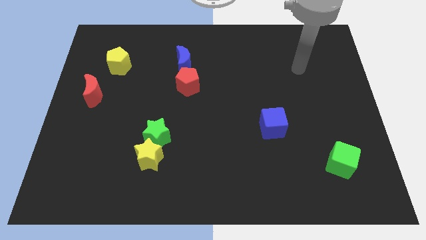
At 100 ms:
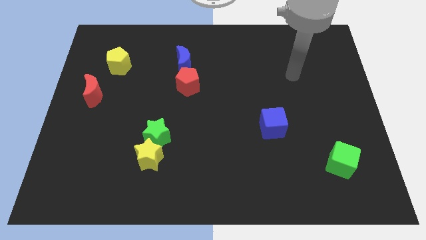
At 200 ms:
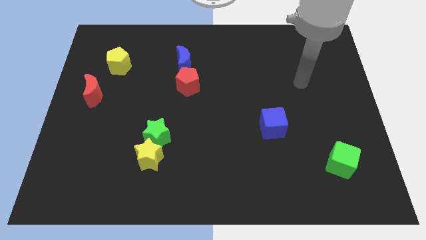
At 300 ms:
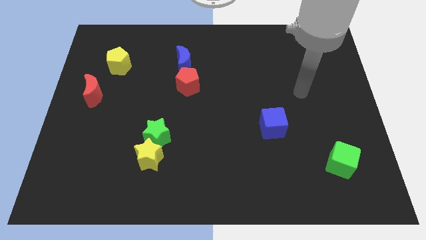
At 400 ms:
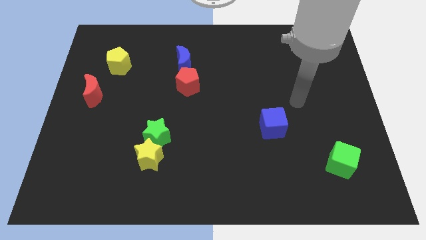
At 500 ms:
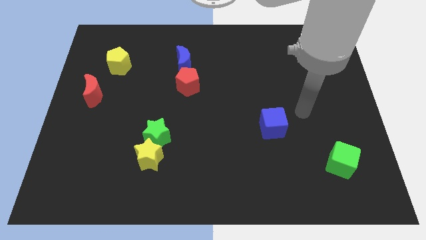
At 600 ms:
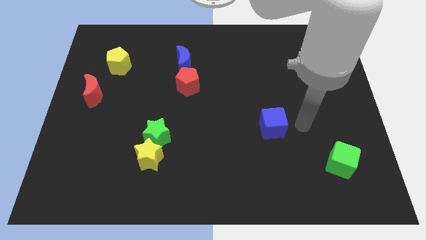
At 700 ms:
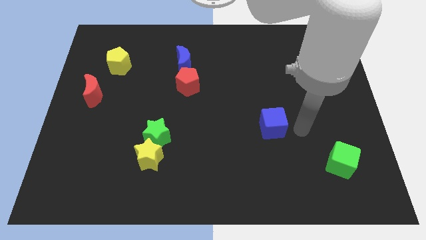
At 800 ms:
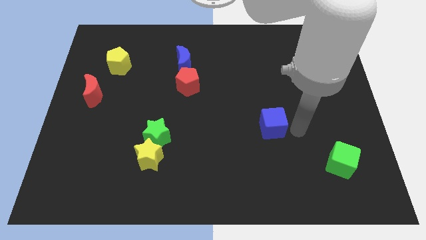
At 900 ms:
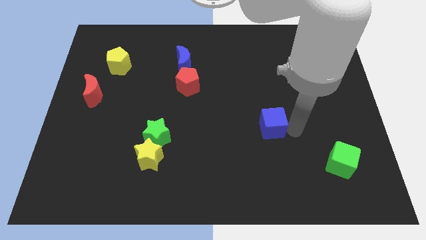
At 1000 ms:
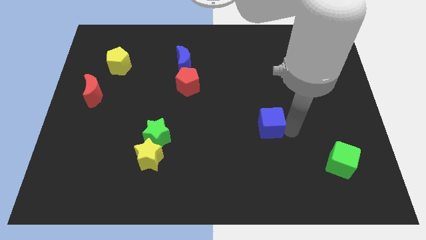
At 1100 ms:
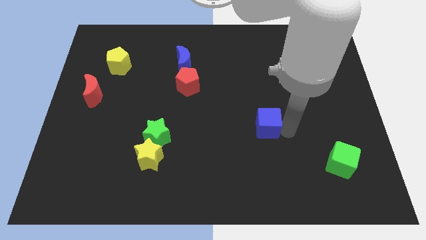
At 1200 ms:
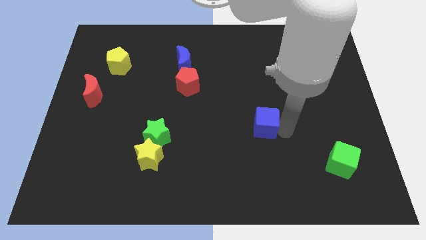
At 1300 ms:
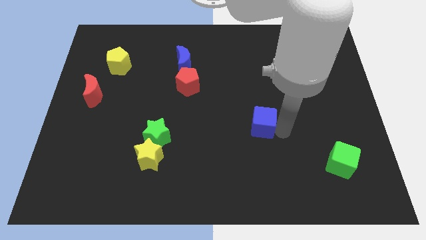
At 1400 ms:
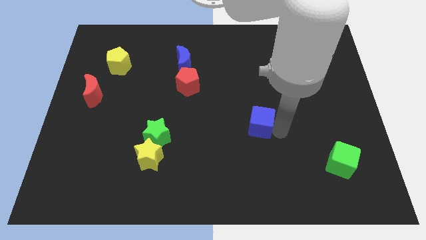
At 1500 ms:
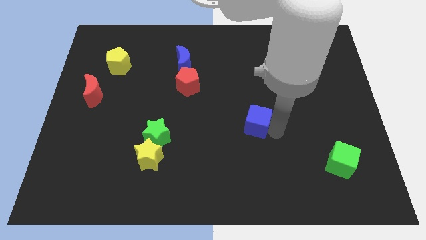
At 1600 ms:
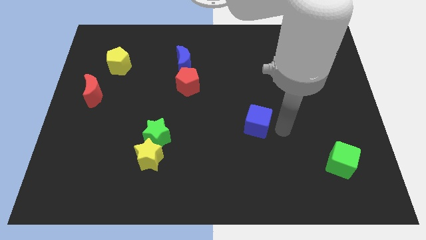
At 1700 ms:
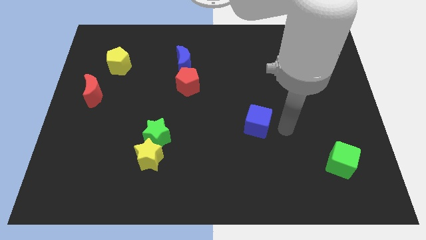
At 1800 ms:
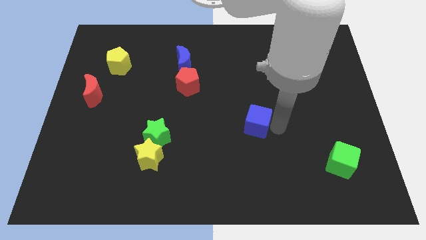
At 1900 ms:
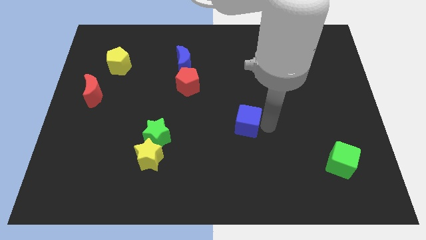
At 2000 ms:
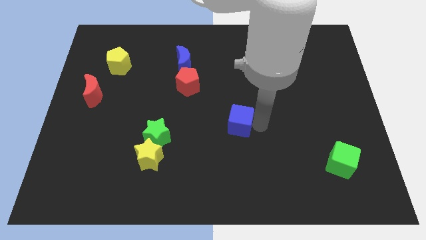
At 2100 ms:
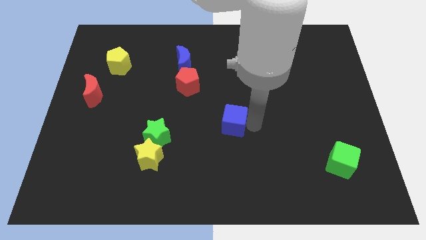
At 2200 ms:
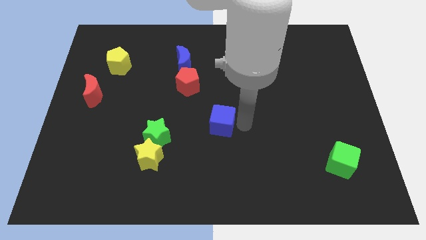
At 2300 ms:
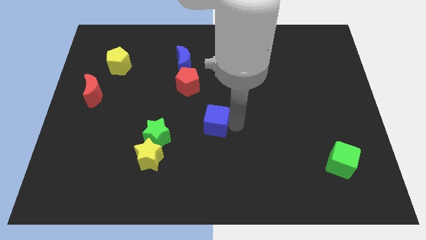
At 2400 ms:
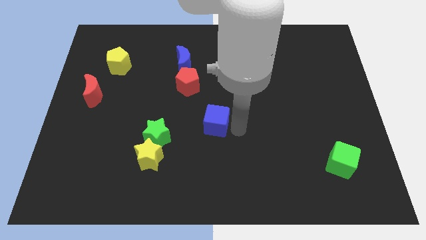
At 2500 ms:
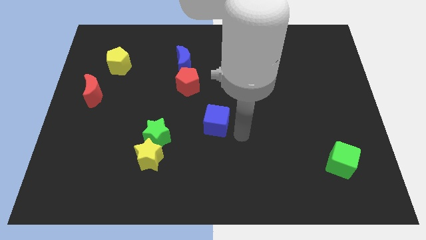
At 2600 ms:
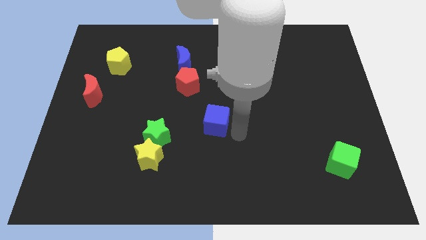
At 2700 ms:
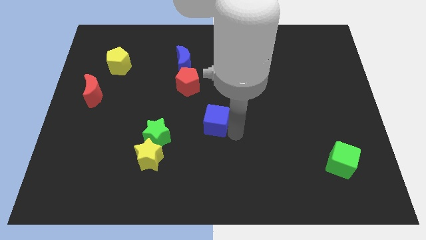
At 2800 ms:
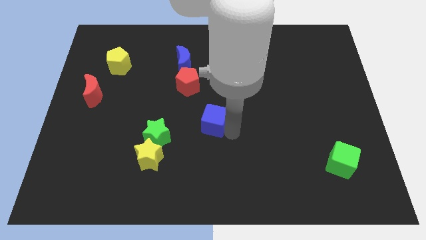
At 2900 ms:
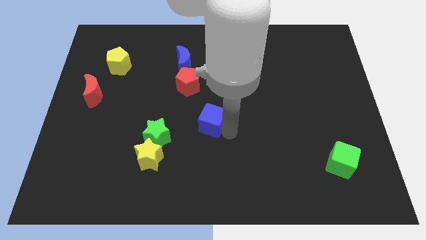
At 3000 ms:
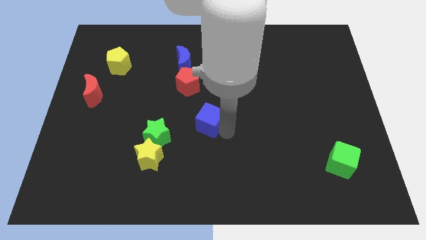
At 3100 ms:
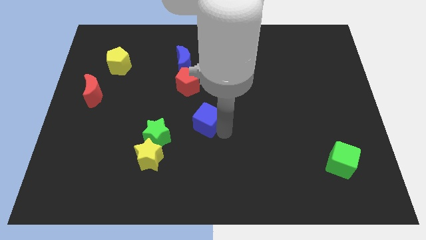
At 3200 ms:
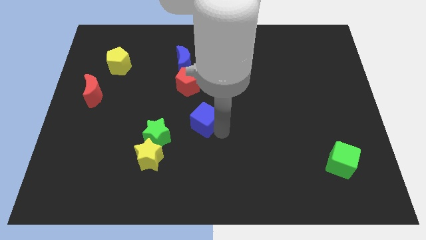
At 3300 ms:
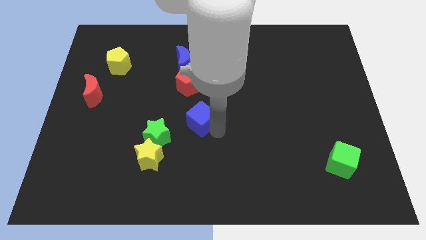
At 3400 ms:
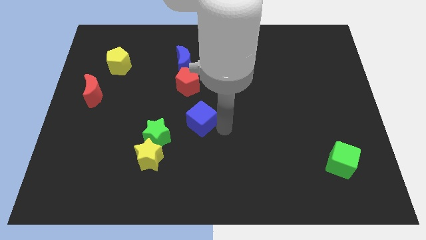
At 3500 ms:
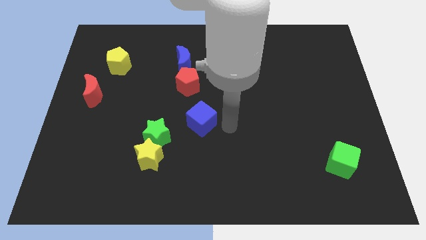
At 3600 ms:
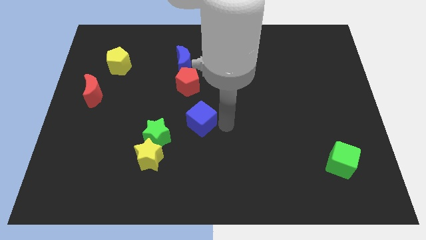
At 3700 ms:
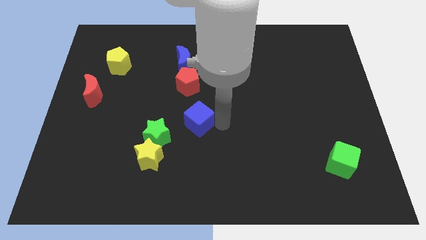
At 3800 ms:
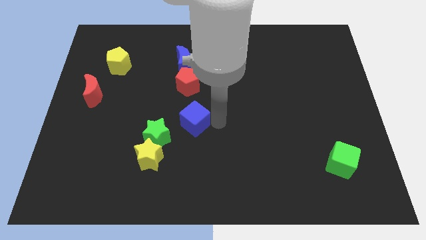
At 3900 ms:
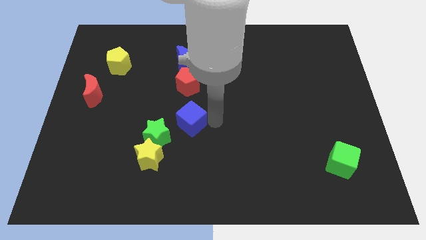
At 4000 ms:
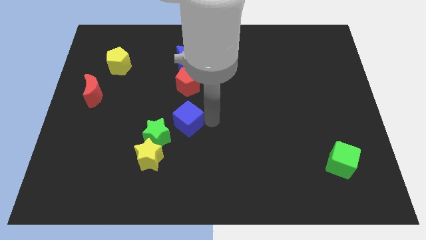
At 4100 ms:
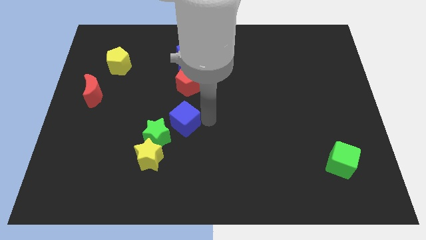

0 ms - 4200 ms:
move the blue cube left

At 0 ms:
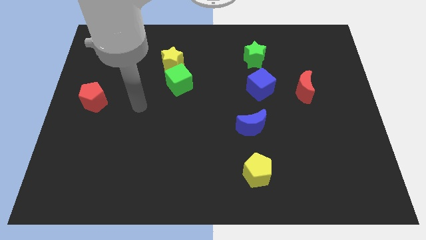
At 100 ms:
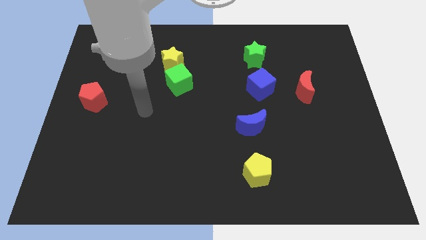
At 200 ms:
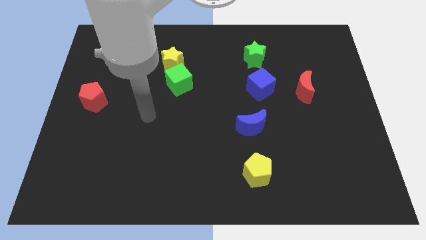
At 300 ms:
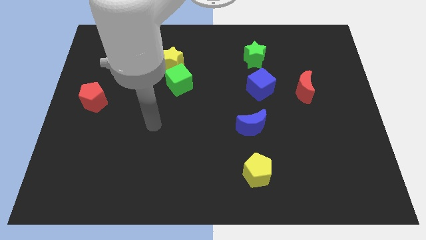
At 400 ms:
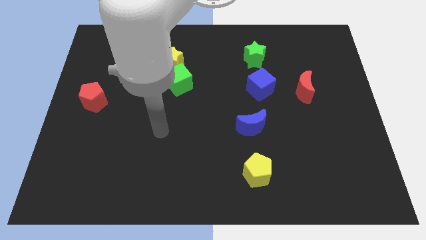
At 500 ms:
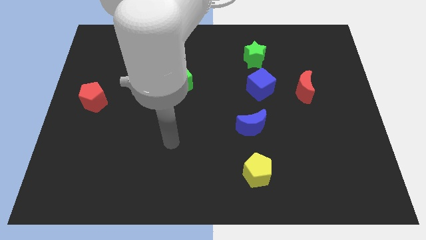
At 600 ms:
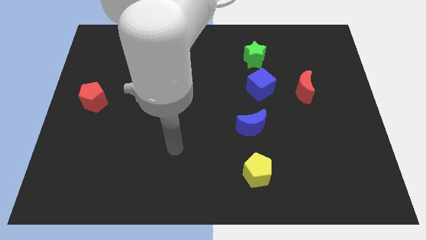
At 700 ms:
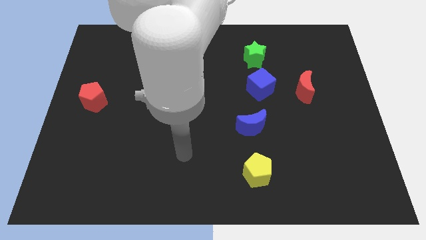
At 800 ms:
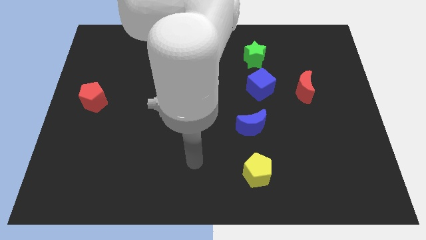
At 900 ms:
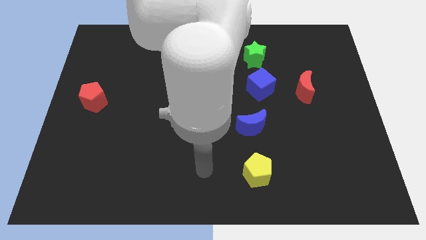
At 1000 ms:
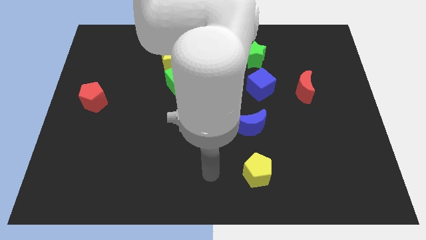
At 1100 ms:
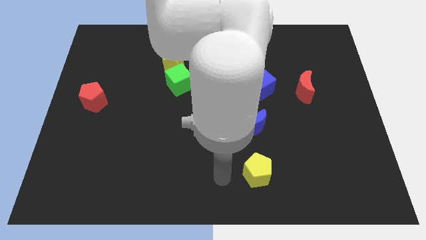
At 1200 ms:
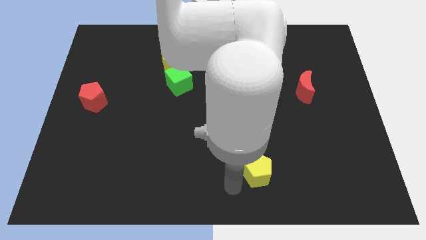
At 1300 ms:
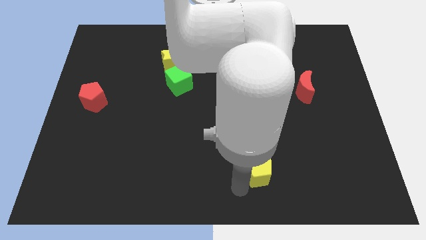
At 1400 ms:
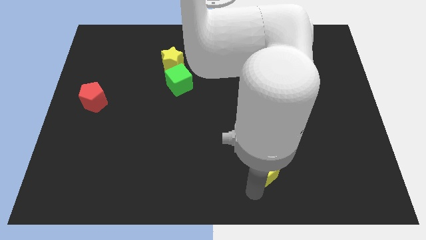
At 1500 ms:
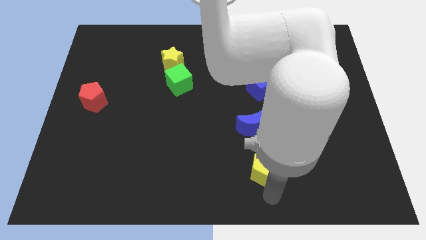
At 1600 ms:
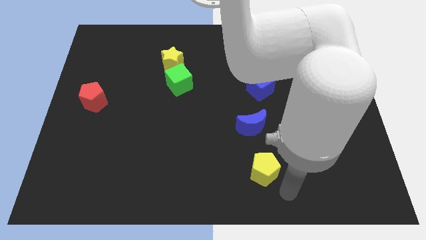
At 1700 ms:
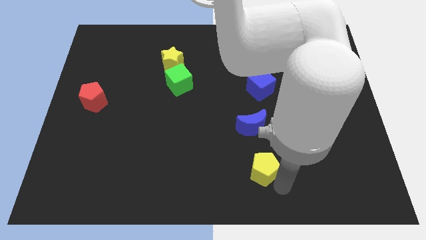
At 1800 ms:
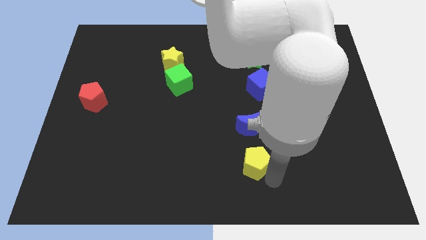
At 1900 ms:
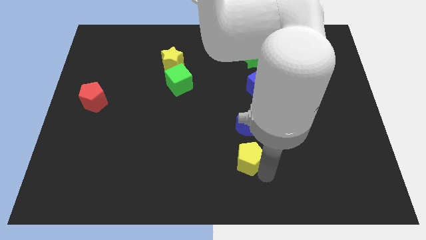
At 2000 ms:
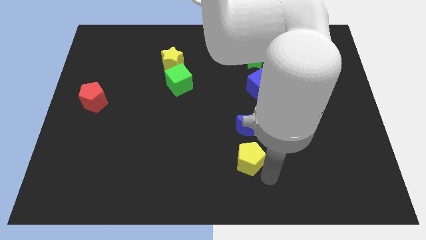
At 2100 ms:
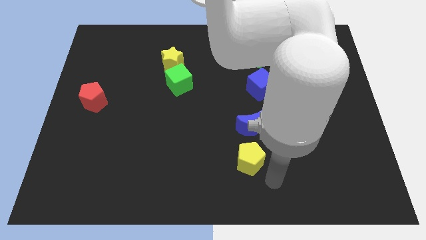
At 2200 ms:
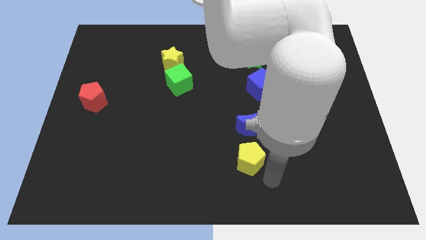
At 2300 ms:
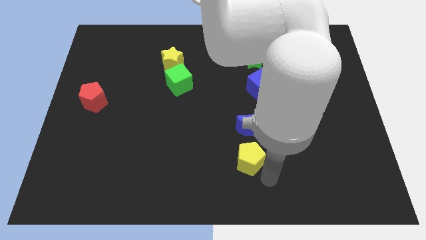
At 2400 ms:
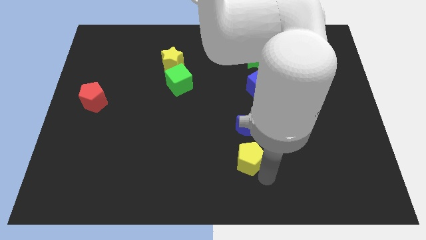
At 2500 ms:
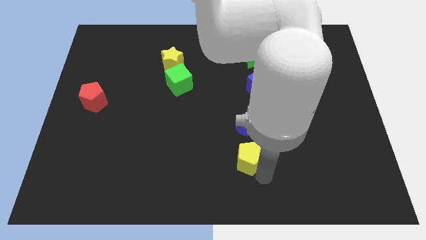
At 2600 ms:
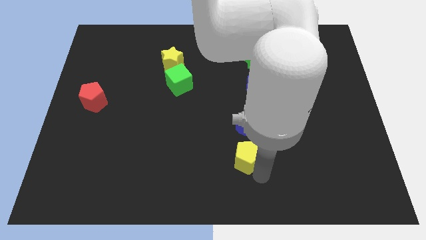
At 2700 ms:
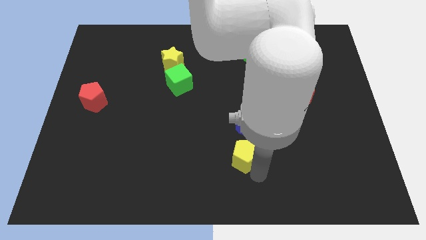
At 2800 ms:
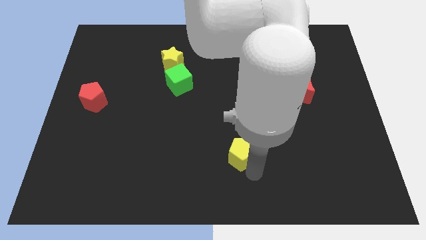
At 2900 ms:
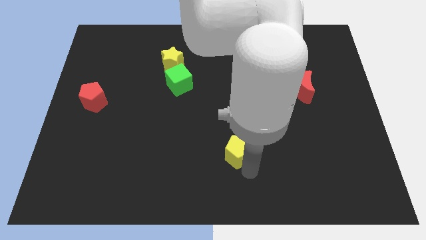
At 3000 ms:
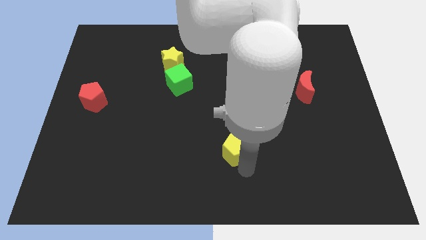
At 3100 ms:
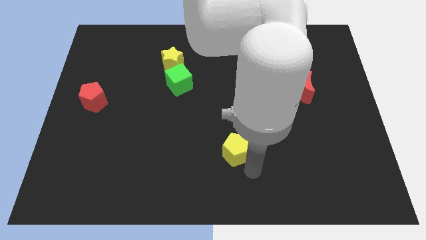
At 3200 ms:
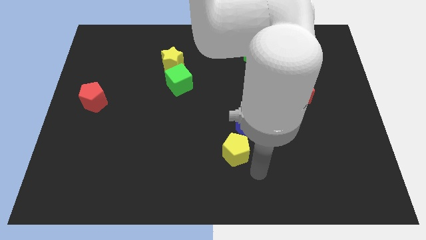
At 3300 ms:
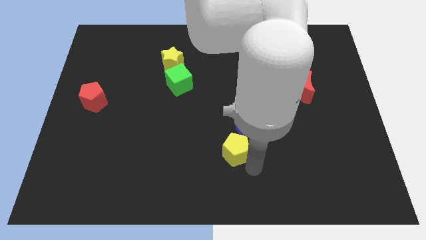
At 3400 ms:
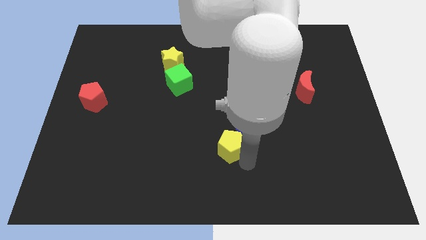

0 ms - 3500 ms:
slightly slide the yellow pentagon up and to the left diagonally

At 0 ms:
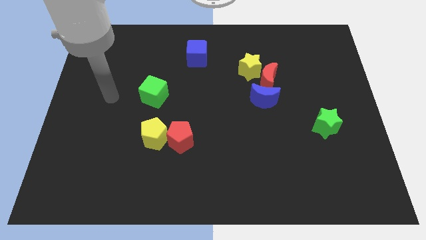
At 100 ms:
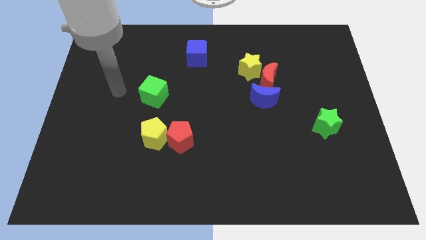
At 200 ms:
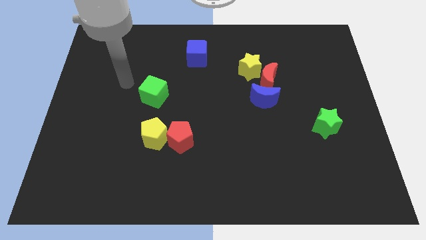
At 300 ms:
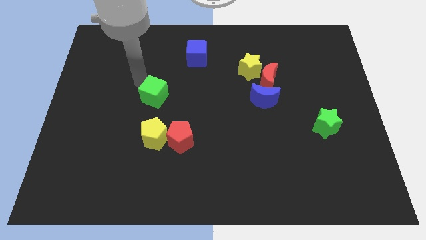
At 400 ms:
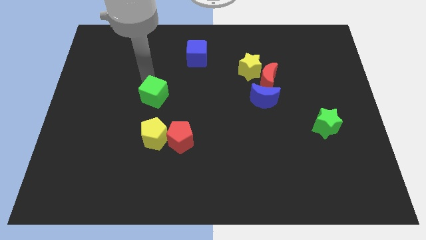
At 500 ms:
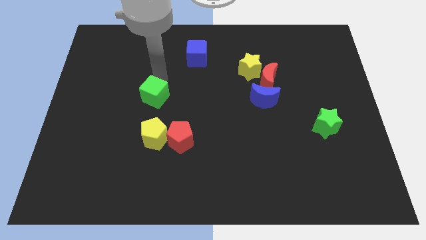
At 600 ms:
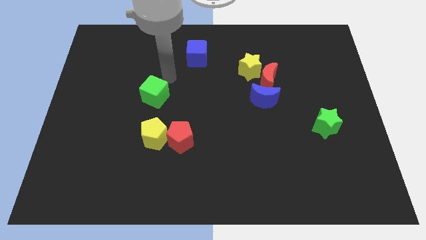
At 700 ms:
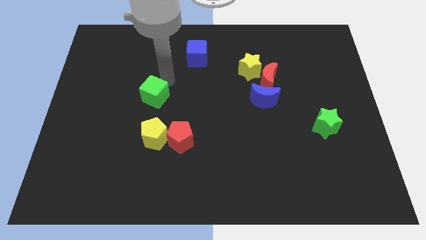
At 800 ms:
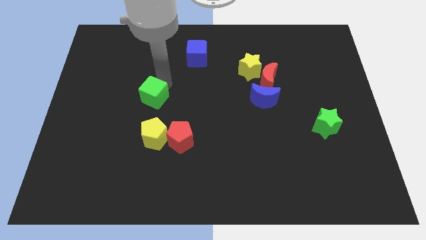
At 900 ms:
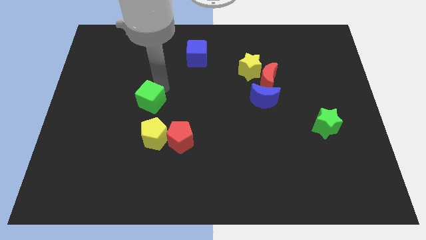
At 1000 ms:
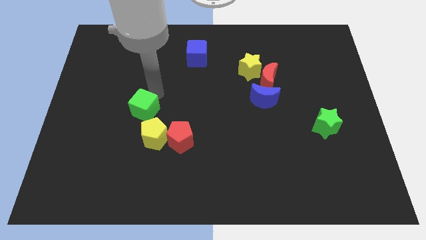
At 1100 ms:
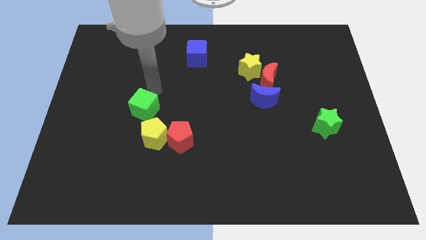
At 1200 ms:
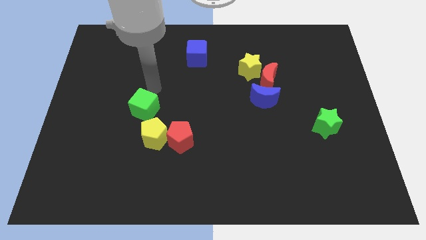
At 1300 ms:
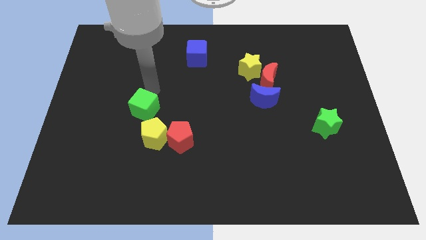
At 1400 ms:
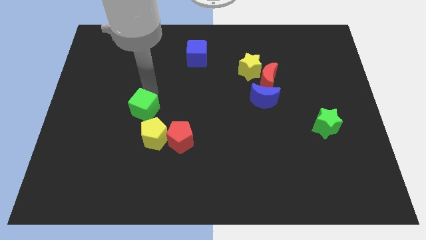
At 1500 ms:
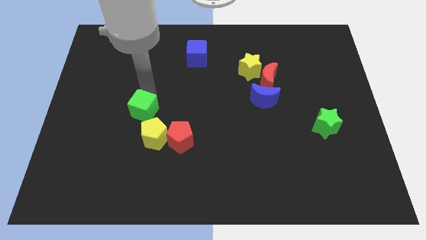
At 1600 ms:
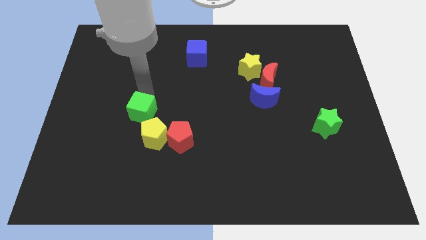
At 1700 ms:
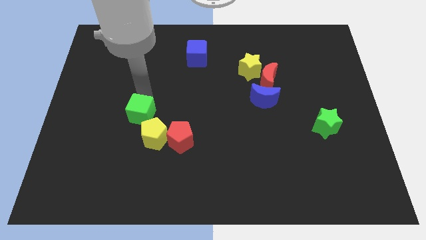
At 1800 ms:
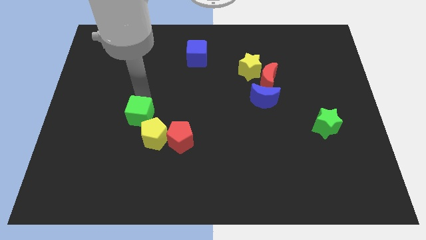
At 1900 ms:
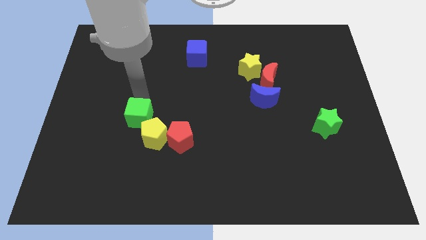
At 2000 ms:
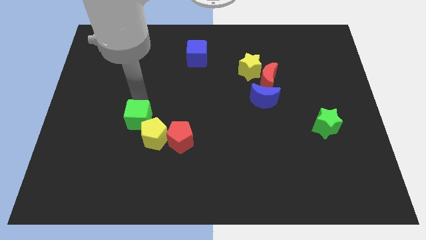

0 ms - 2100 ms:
slightly slide the green cube downwards
